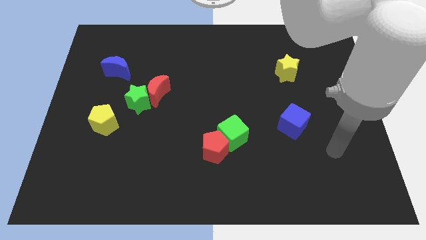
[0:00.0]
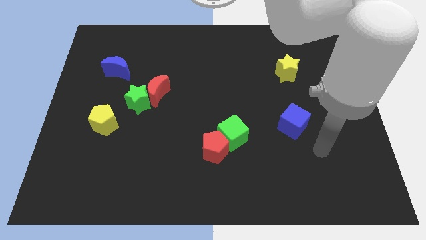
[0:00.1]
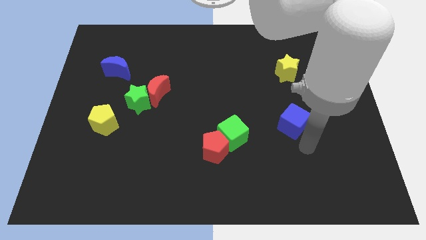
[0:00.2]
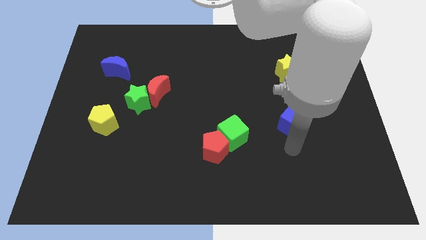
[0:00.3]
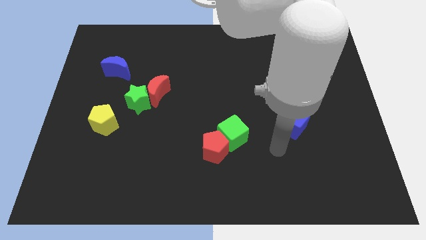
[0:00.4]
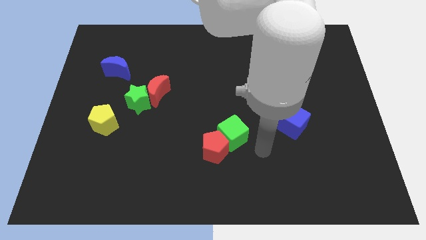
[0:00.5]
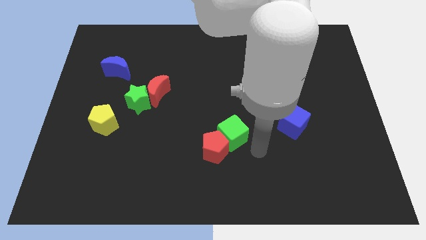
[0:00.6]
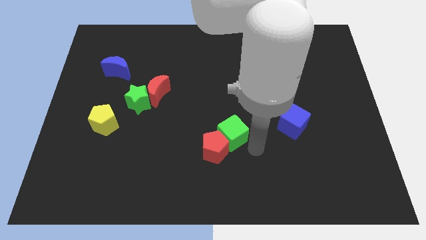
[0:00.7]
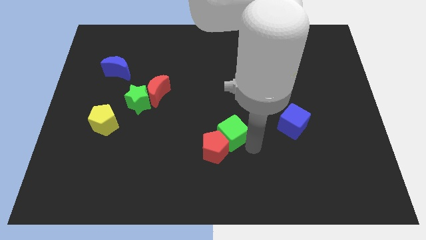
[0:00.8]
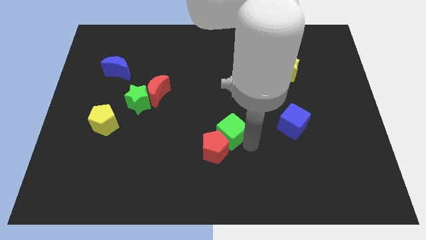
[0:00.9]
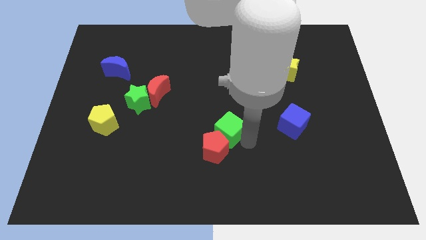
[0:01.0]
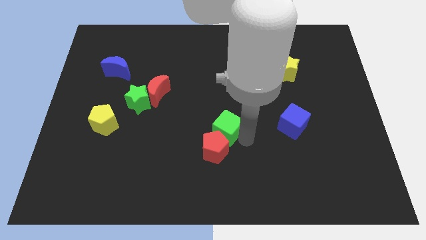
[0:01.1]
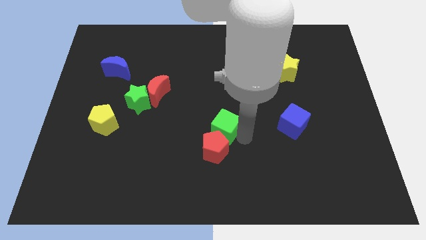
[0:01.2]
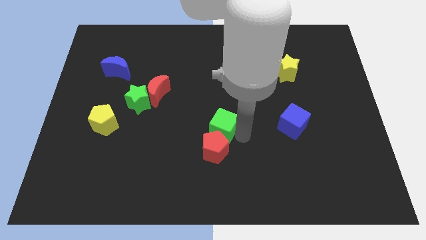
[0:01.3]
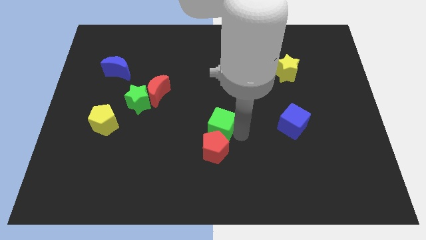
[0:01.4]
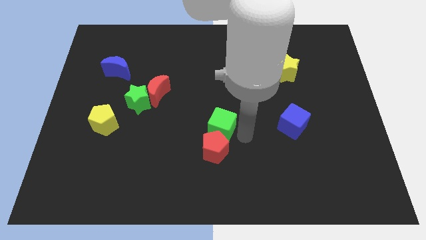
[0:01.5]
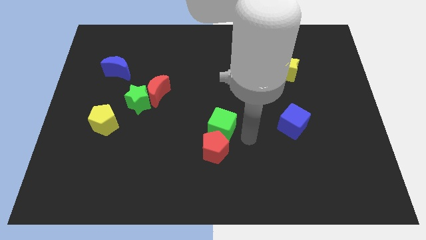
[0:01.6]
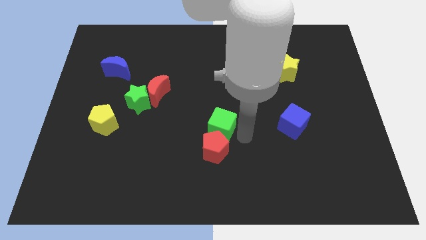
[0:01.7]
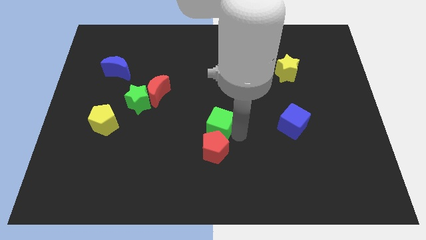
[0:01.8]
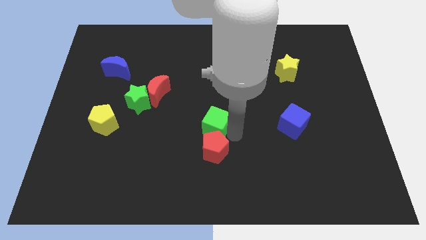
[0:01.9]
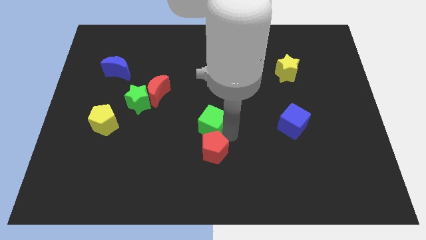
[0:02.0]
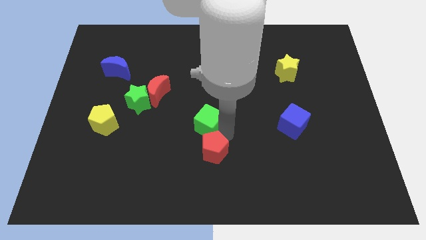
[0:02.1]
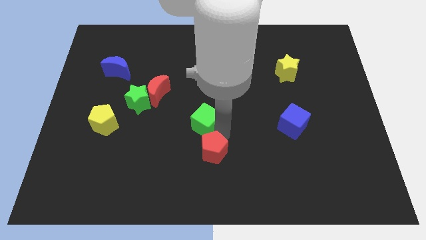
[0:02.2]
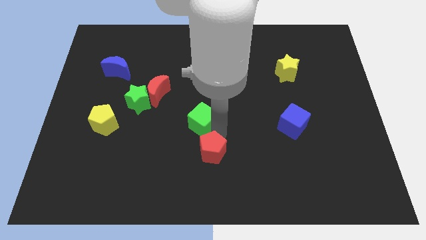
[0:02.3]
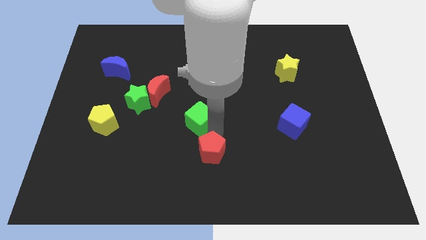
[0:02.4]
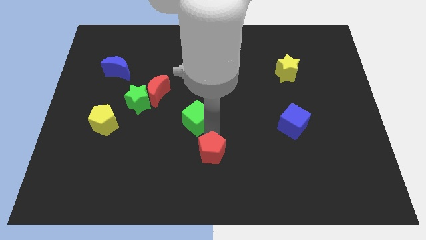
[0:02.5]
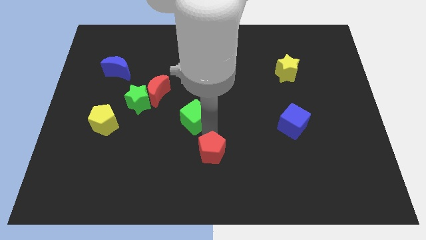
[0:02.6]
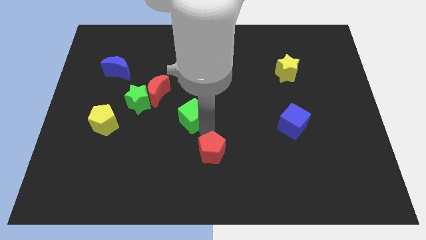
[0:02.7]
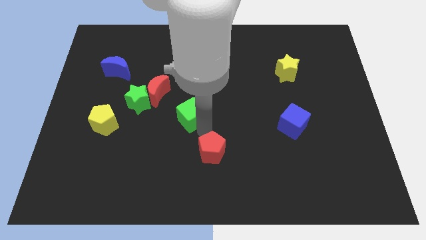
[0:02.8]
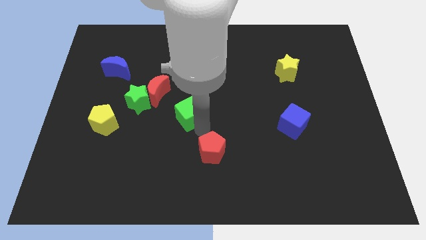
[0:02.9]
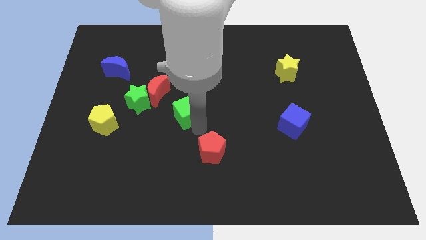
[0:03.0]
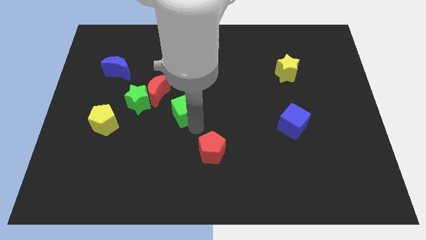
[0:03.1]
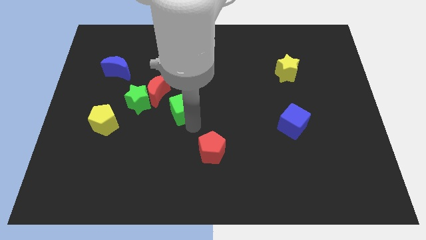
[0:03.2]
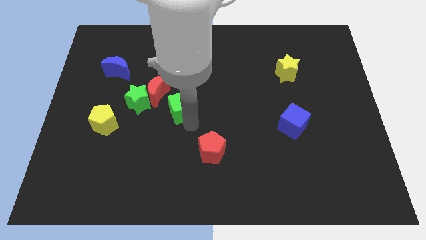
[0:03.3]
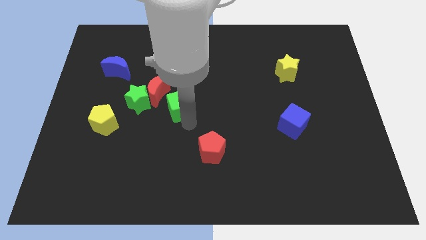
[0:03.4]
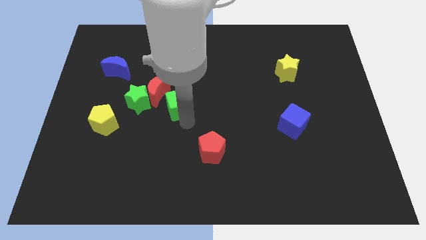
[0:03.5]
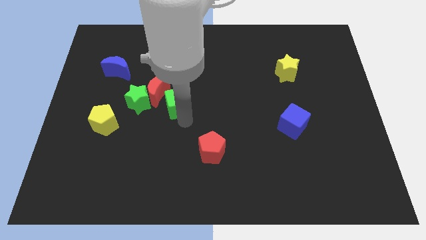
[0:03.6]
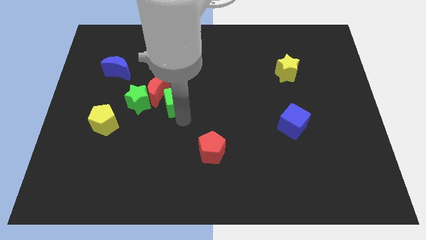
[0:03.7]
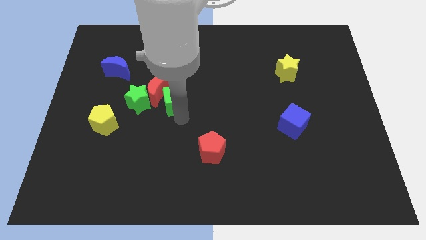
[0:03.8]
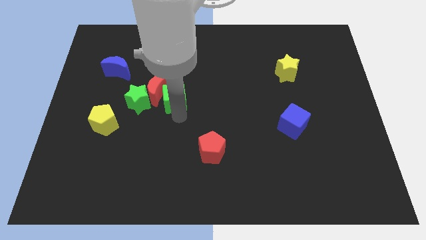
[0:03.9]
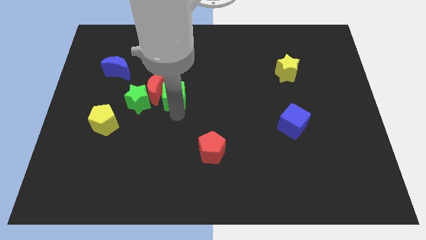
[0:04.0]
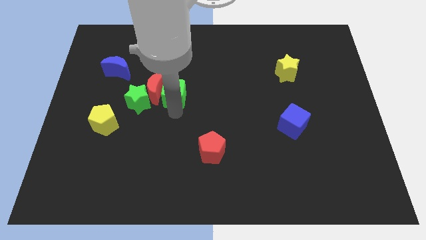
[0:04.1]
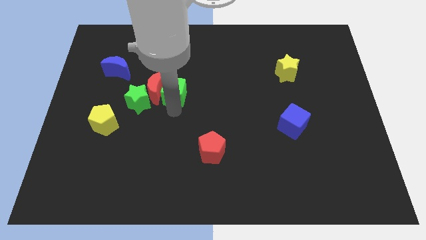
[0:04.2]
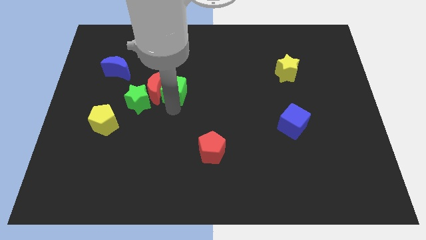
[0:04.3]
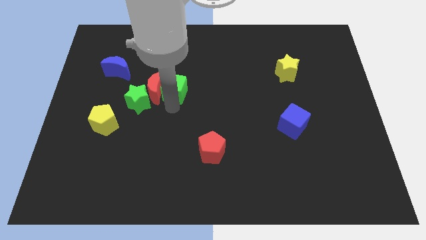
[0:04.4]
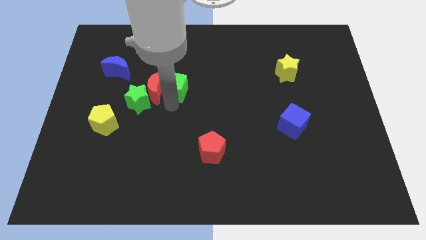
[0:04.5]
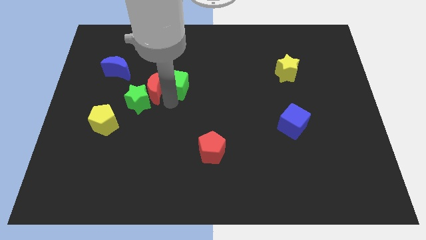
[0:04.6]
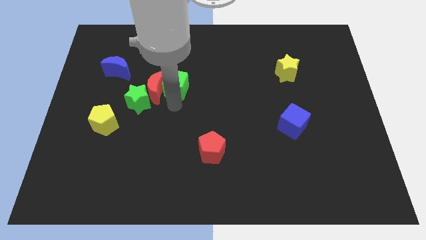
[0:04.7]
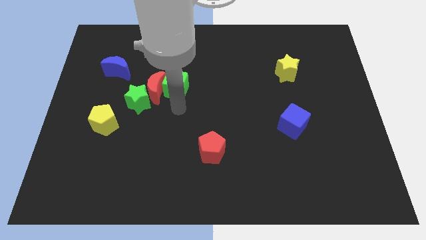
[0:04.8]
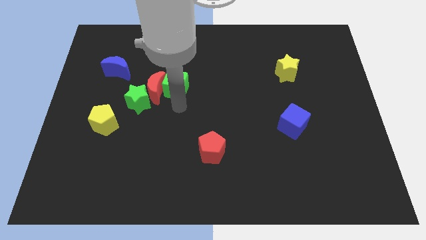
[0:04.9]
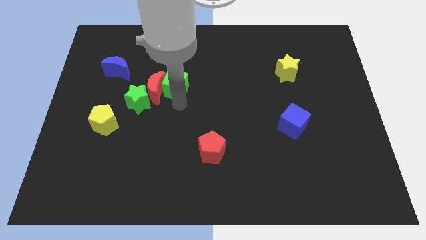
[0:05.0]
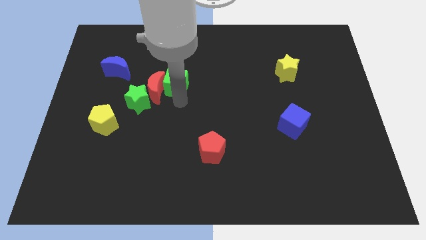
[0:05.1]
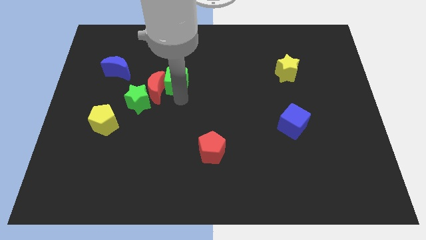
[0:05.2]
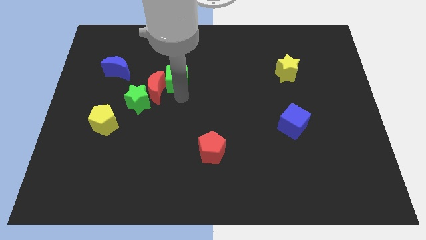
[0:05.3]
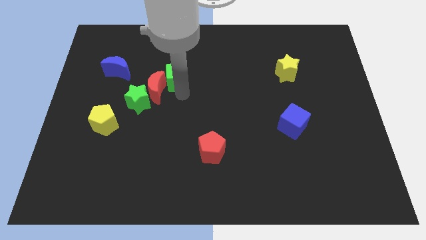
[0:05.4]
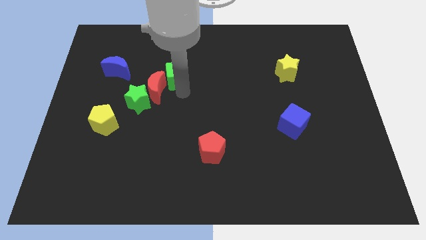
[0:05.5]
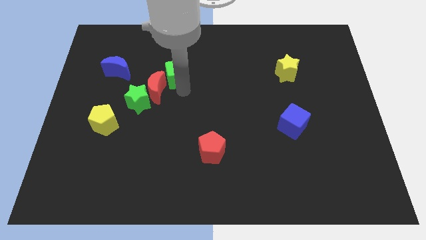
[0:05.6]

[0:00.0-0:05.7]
put the green cube to the top of the red moon
